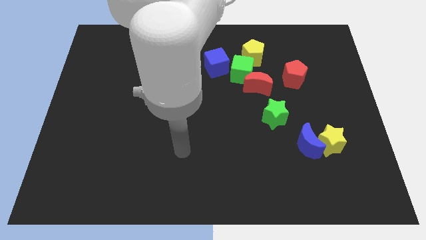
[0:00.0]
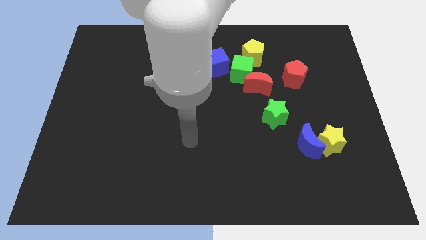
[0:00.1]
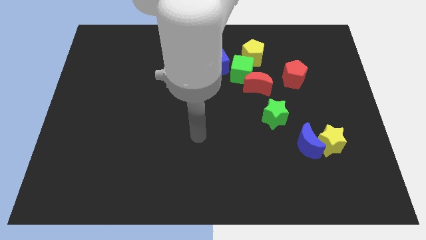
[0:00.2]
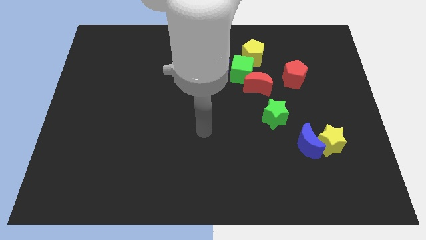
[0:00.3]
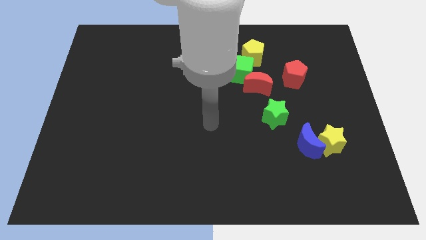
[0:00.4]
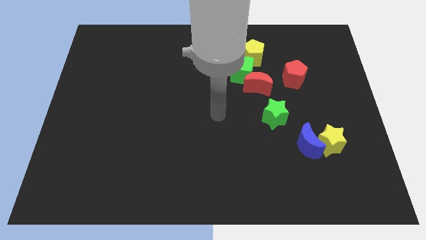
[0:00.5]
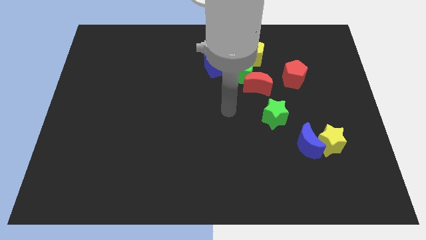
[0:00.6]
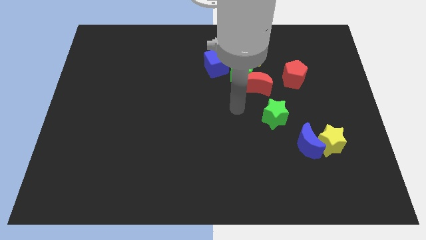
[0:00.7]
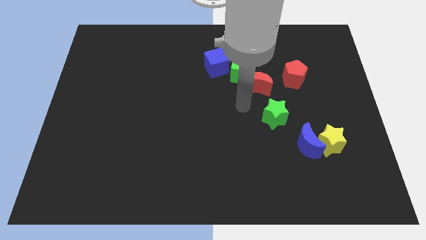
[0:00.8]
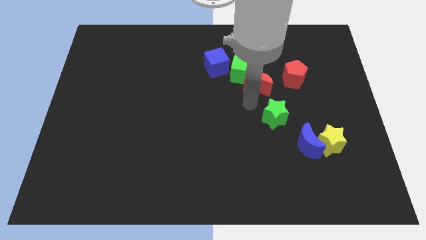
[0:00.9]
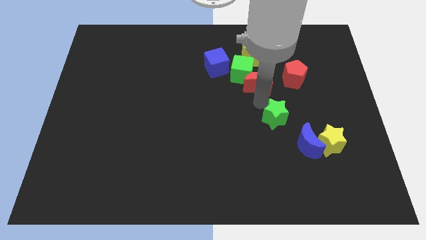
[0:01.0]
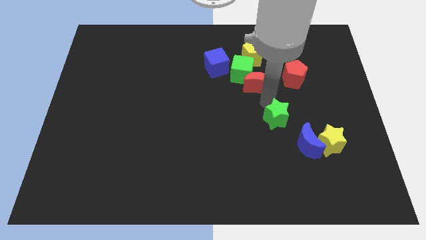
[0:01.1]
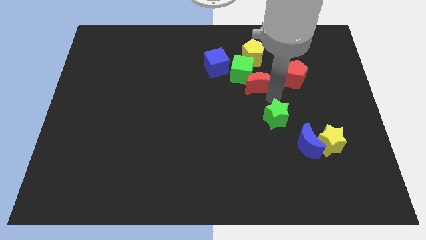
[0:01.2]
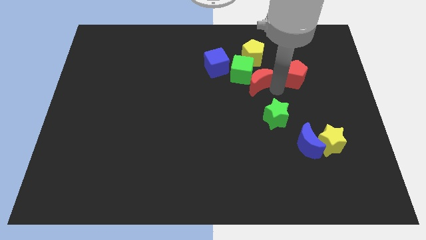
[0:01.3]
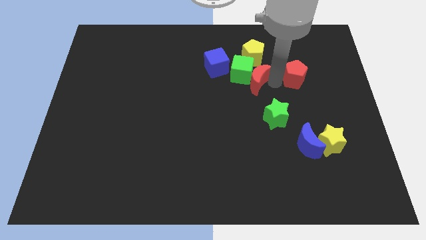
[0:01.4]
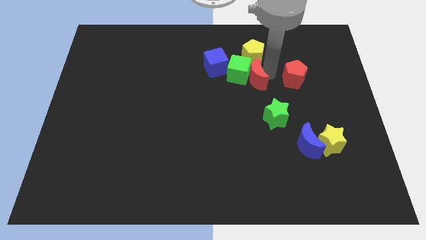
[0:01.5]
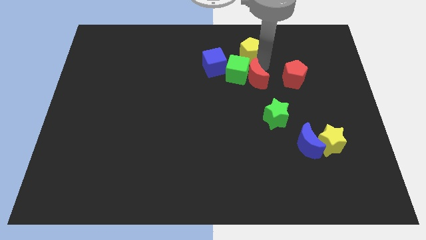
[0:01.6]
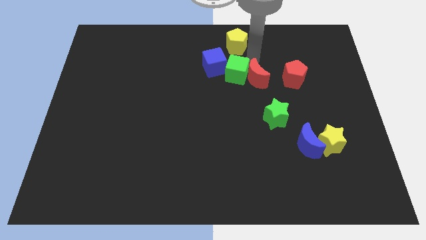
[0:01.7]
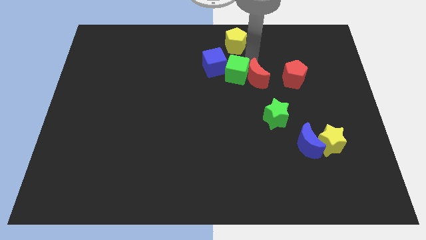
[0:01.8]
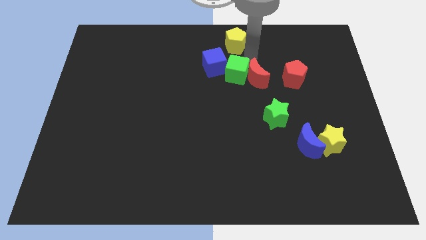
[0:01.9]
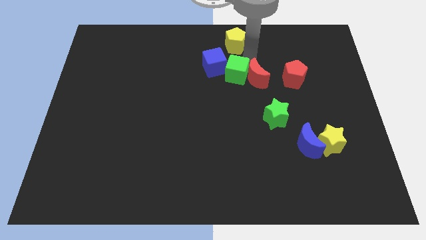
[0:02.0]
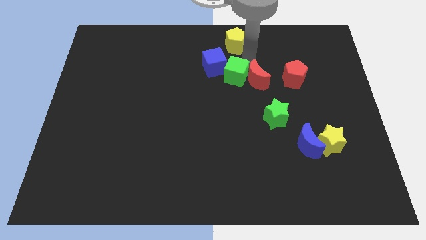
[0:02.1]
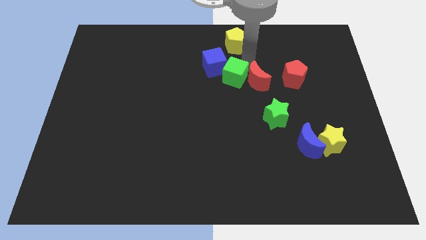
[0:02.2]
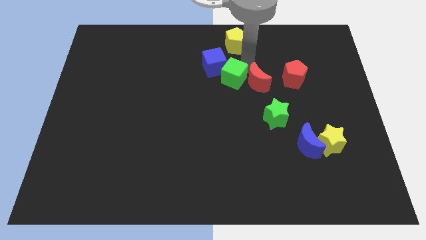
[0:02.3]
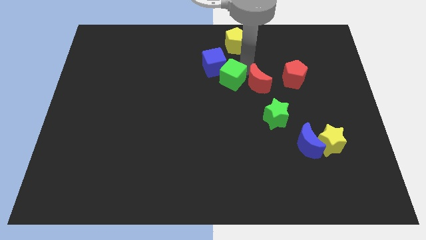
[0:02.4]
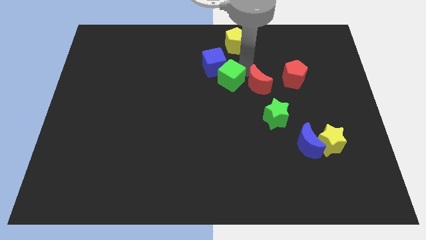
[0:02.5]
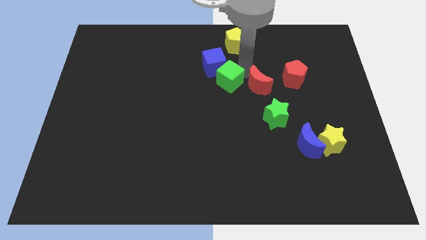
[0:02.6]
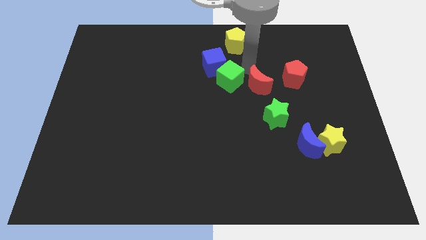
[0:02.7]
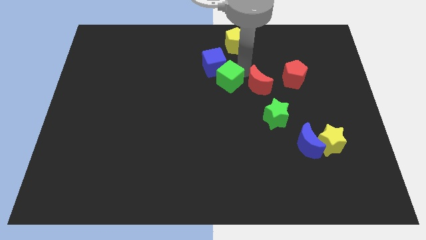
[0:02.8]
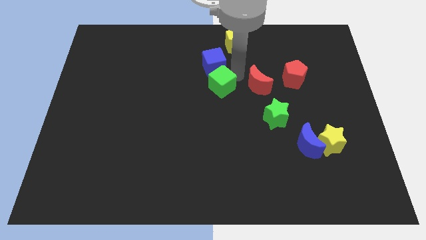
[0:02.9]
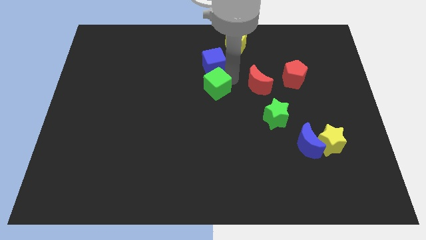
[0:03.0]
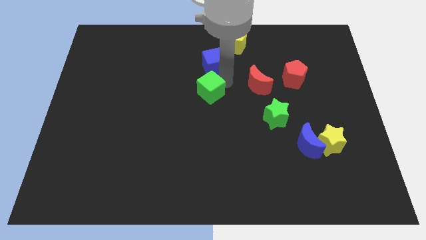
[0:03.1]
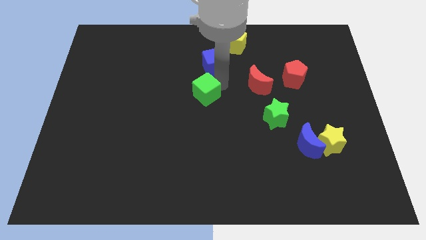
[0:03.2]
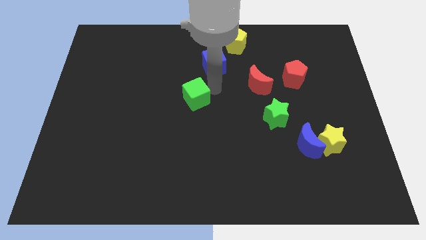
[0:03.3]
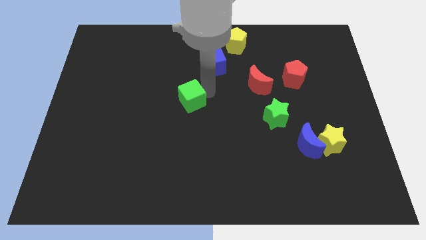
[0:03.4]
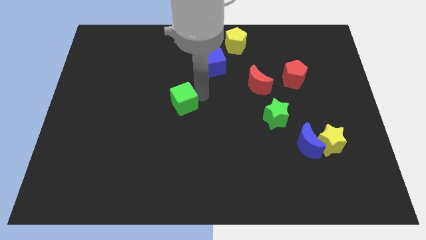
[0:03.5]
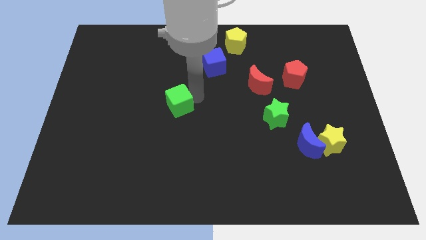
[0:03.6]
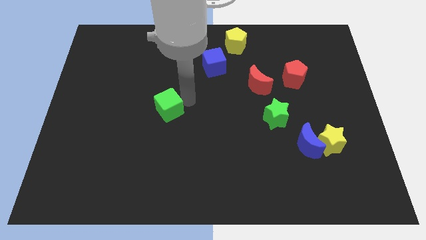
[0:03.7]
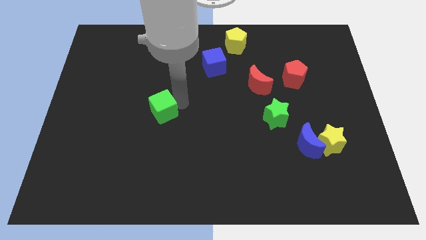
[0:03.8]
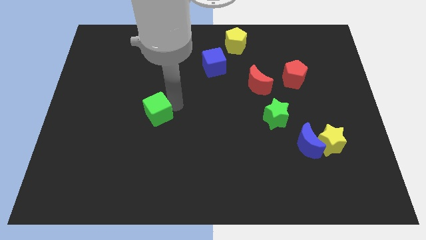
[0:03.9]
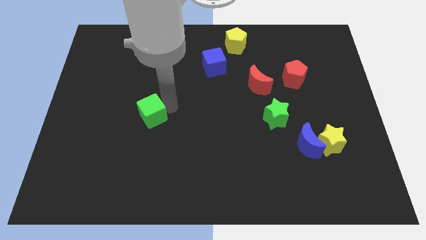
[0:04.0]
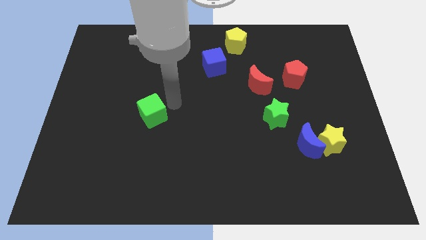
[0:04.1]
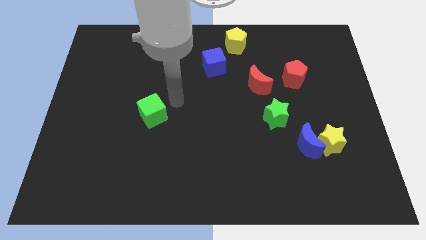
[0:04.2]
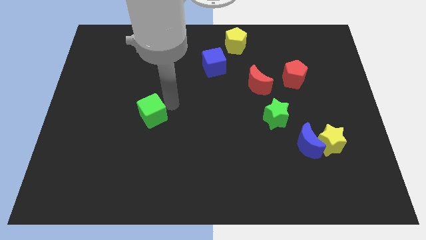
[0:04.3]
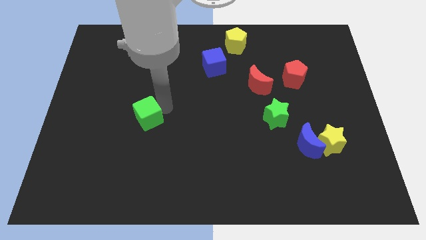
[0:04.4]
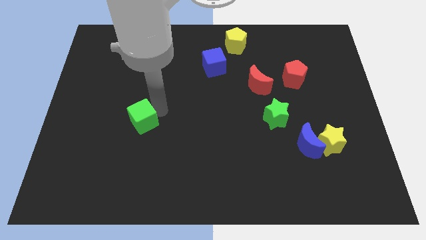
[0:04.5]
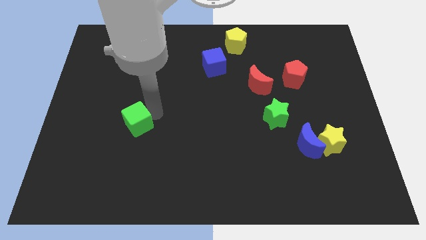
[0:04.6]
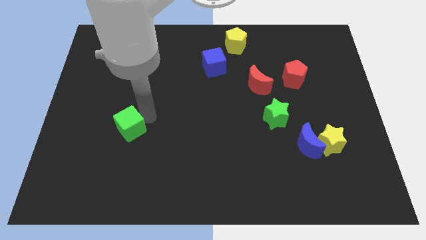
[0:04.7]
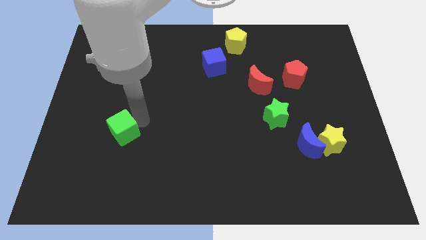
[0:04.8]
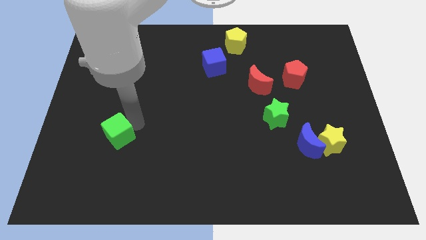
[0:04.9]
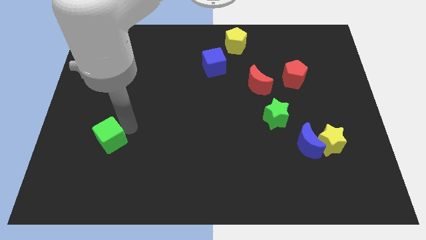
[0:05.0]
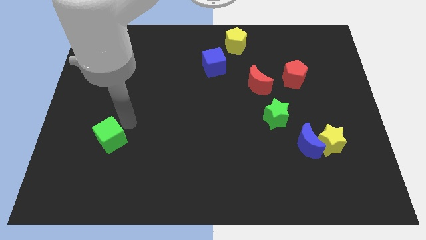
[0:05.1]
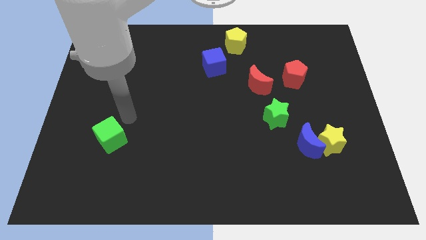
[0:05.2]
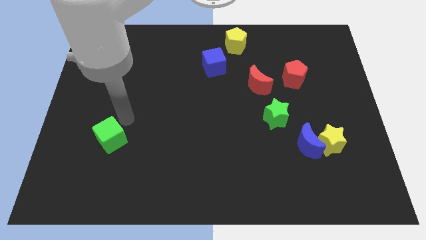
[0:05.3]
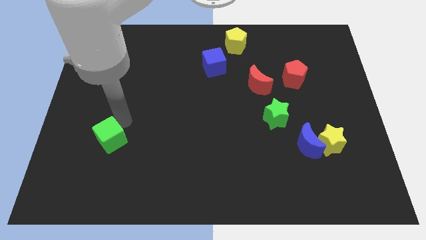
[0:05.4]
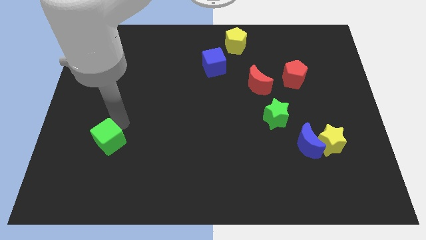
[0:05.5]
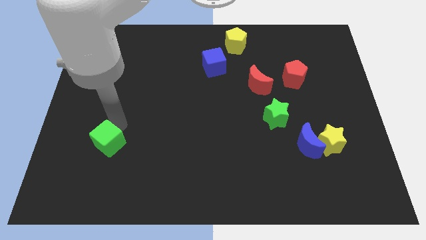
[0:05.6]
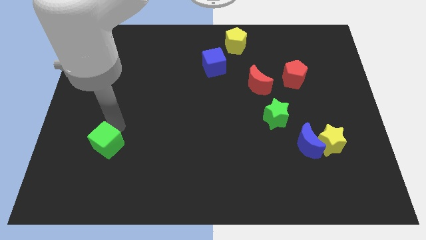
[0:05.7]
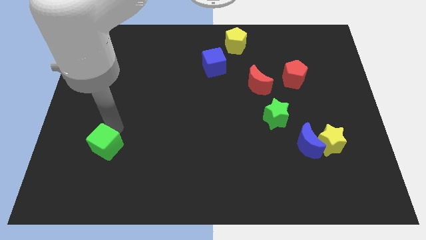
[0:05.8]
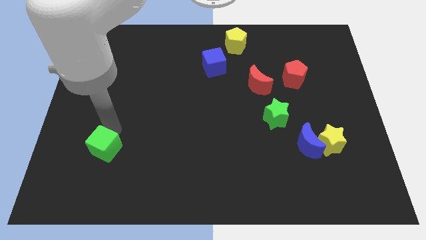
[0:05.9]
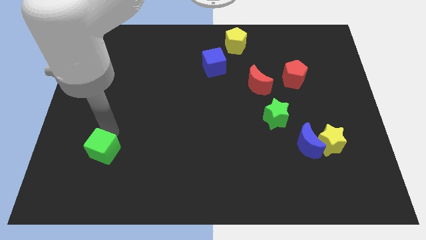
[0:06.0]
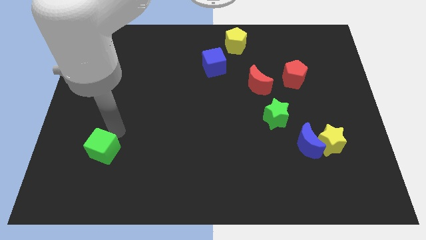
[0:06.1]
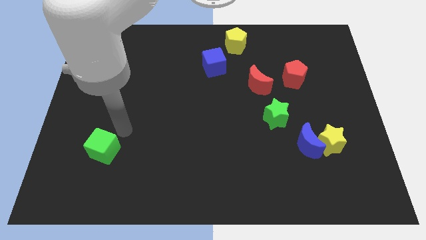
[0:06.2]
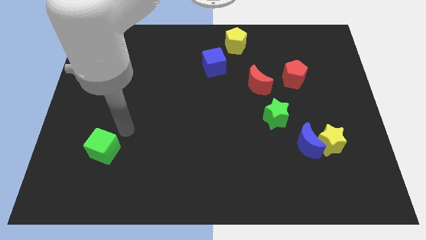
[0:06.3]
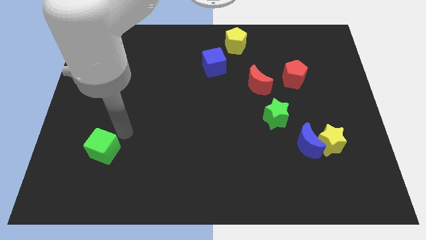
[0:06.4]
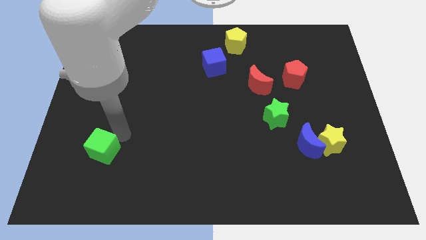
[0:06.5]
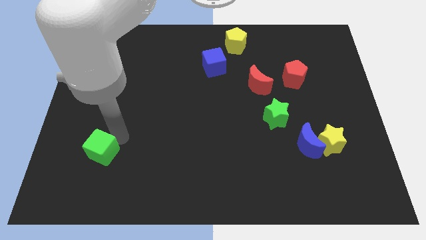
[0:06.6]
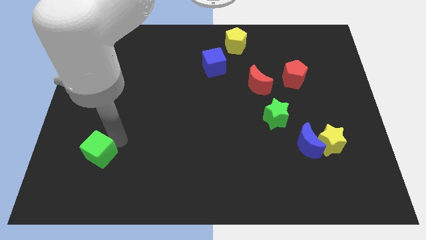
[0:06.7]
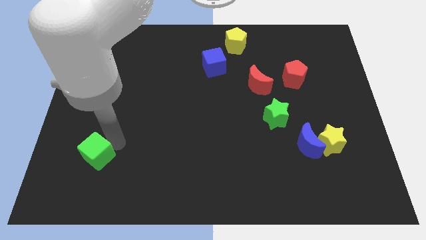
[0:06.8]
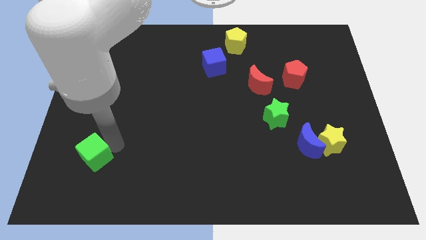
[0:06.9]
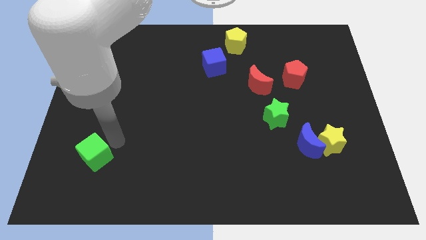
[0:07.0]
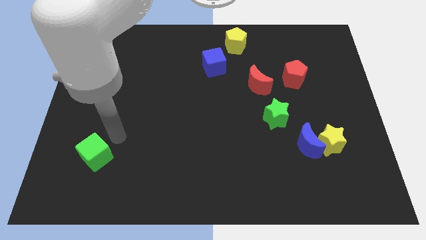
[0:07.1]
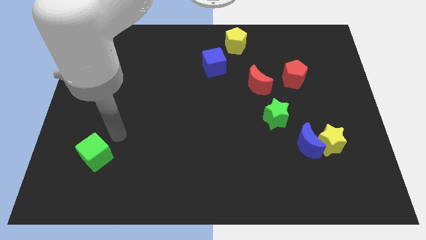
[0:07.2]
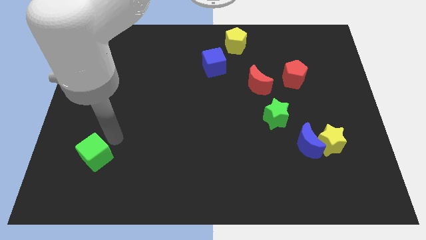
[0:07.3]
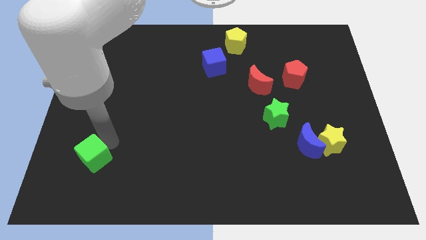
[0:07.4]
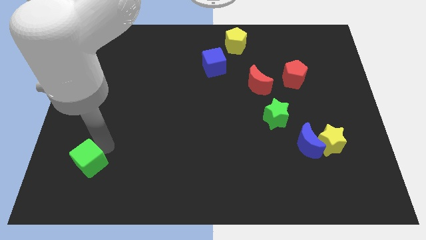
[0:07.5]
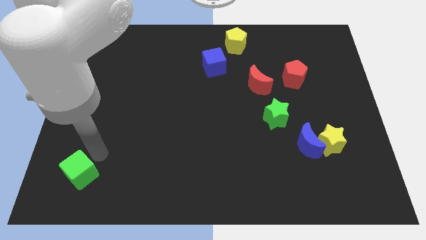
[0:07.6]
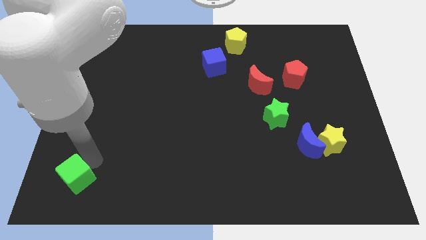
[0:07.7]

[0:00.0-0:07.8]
push the green cube to the bottom left of the board
